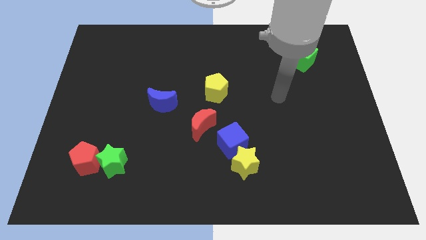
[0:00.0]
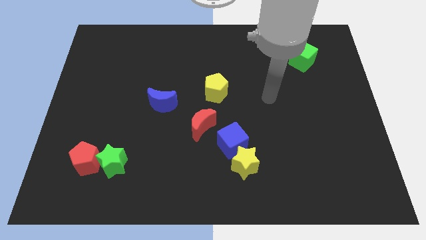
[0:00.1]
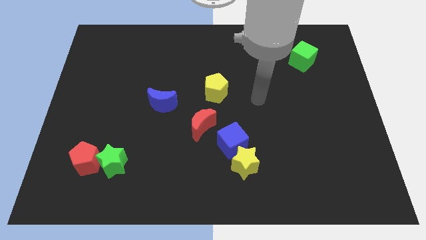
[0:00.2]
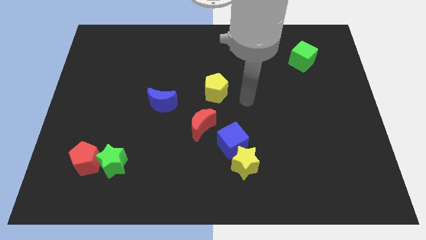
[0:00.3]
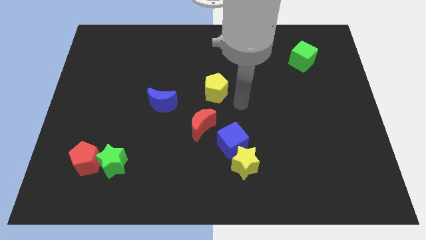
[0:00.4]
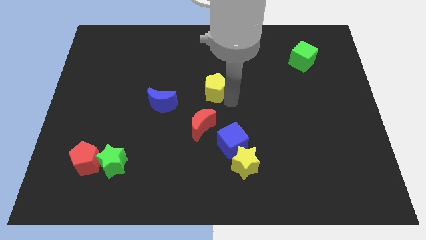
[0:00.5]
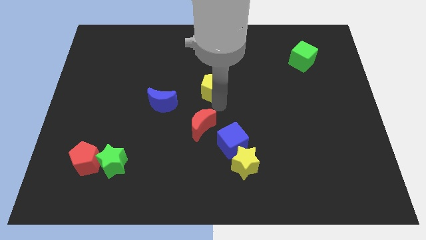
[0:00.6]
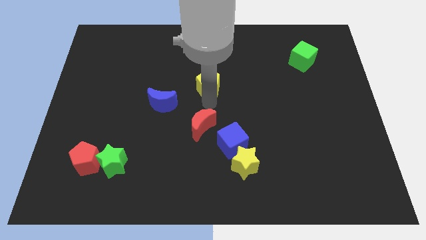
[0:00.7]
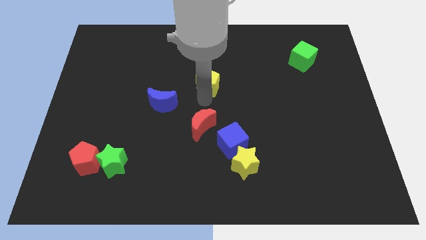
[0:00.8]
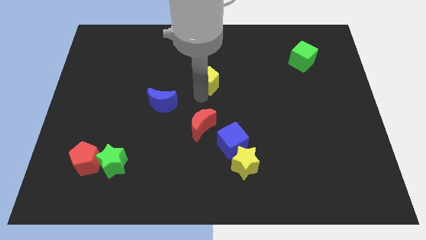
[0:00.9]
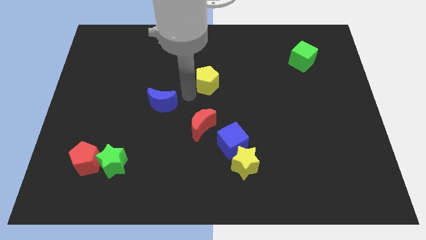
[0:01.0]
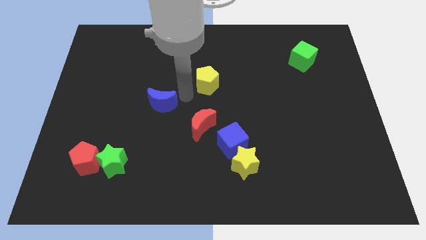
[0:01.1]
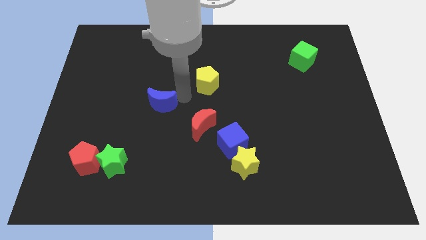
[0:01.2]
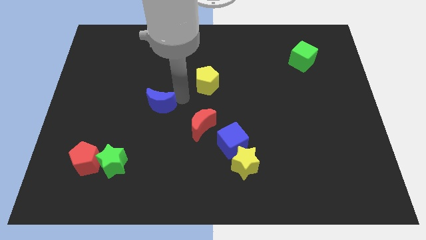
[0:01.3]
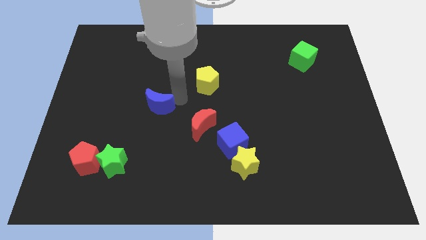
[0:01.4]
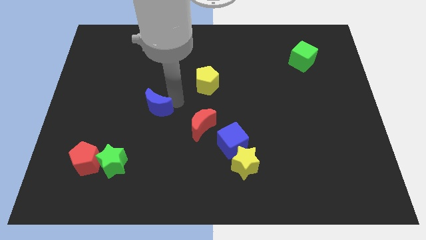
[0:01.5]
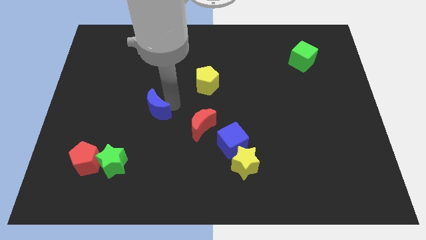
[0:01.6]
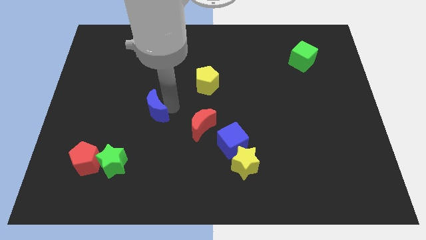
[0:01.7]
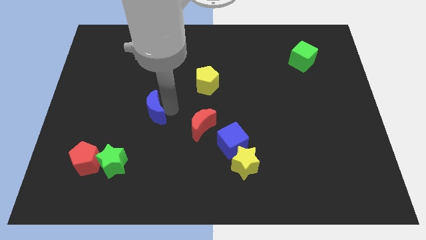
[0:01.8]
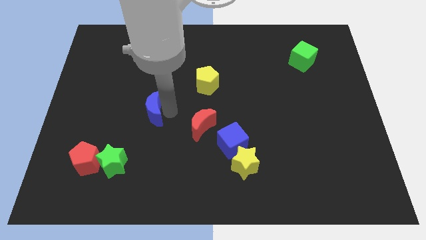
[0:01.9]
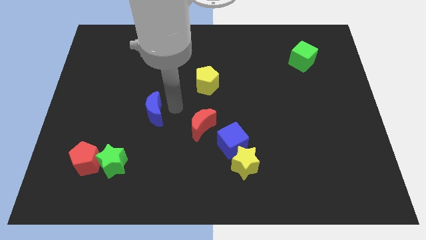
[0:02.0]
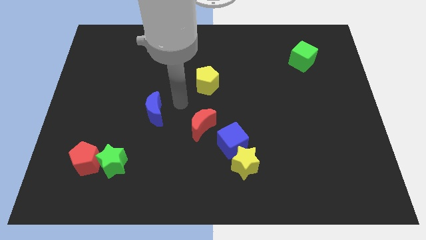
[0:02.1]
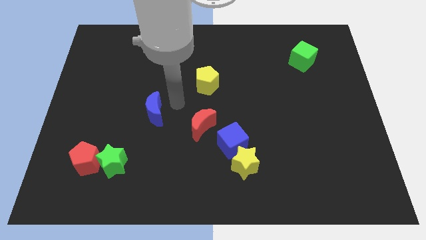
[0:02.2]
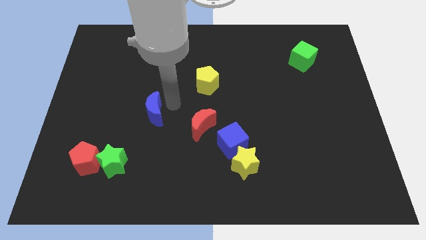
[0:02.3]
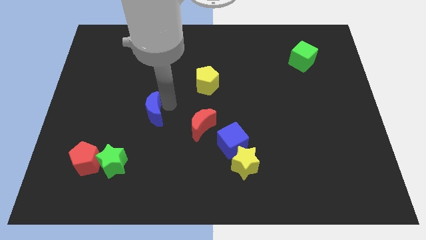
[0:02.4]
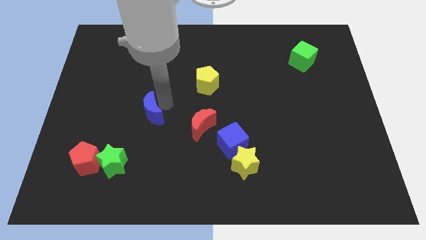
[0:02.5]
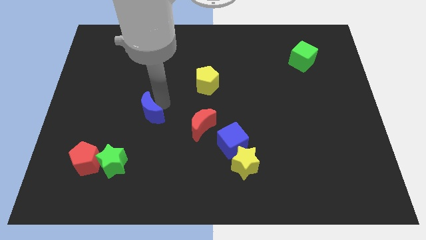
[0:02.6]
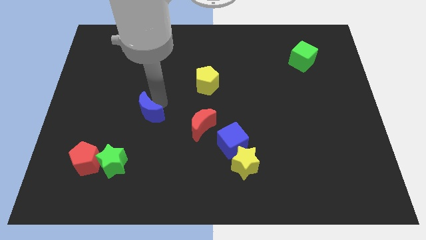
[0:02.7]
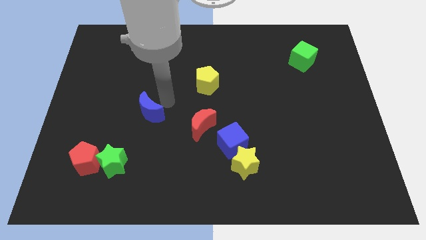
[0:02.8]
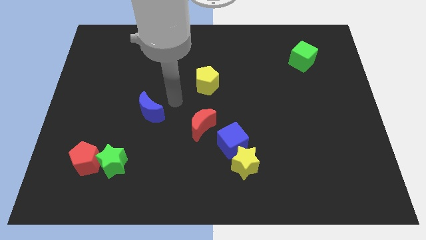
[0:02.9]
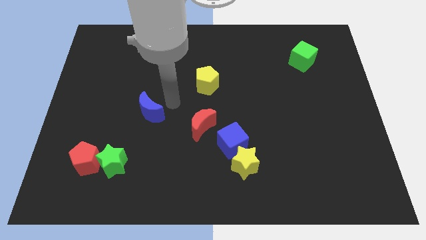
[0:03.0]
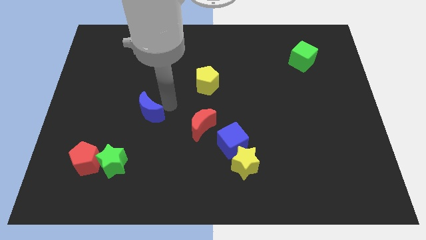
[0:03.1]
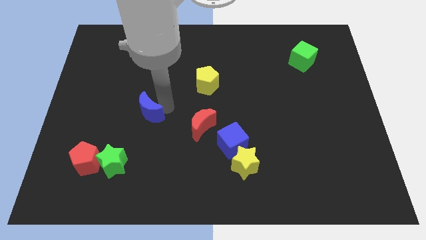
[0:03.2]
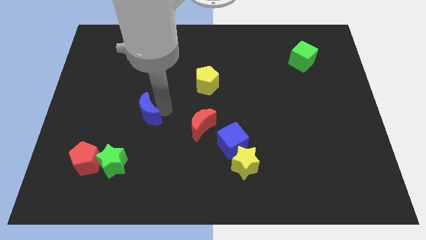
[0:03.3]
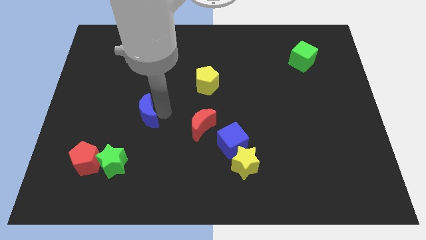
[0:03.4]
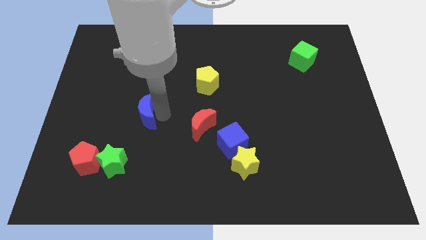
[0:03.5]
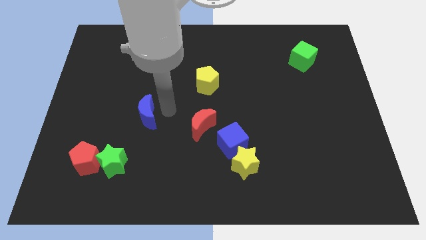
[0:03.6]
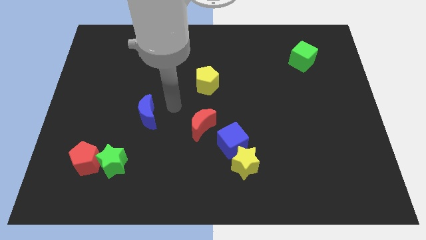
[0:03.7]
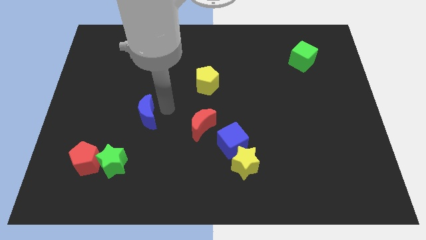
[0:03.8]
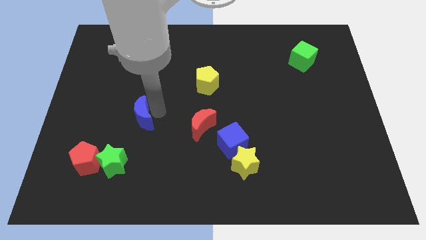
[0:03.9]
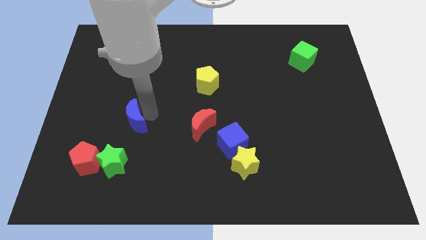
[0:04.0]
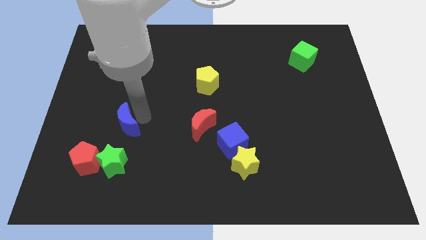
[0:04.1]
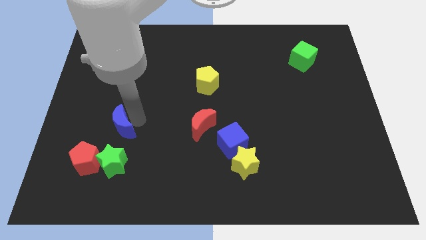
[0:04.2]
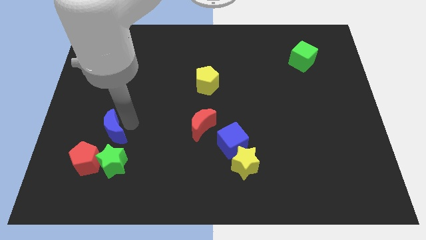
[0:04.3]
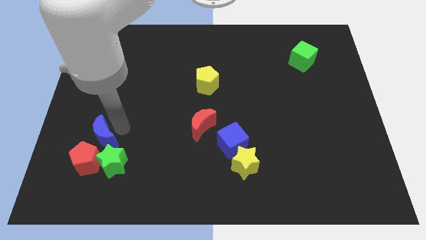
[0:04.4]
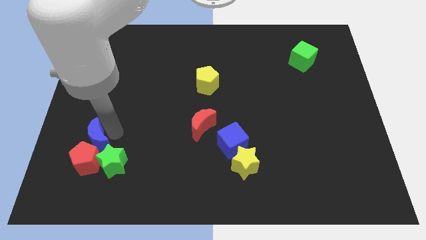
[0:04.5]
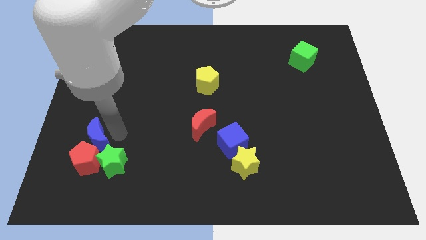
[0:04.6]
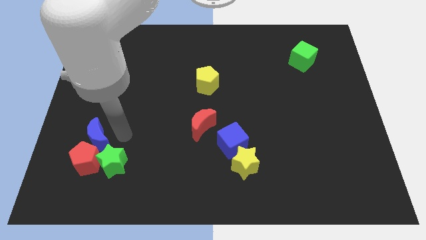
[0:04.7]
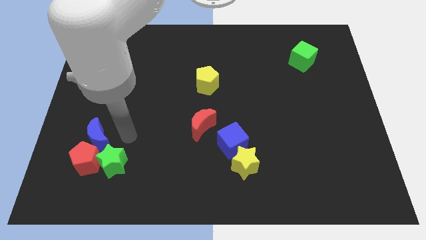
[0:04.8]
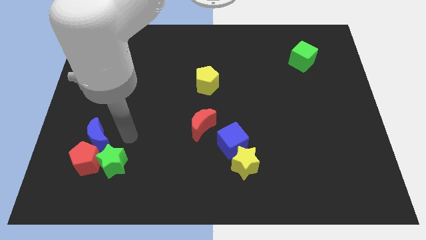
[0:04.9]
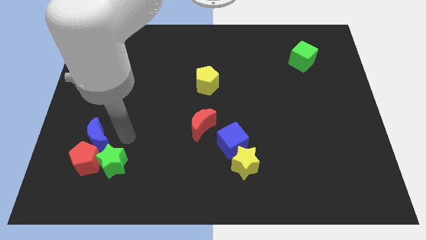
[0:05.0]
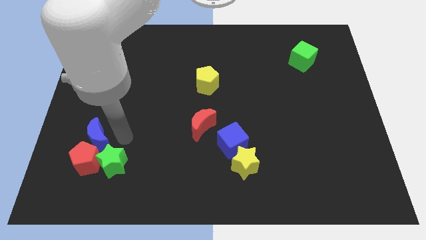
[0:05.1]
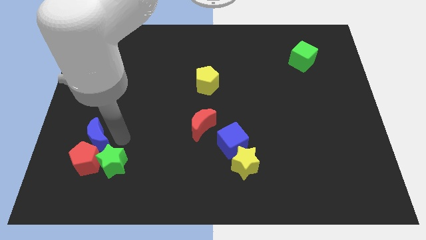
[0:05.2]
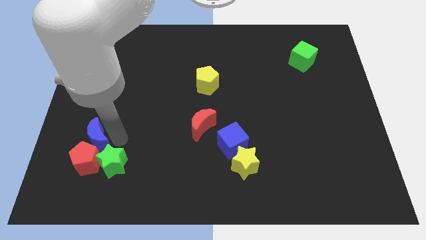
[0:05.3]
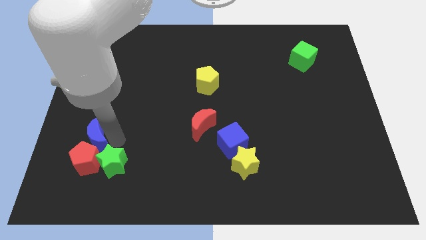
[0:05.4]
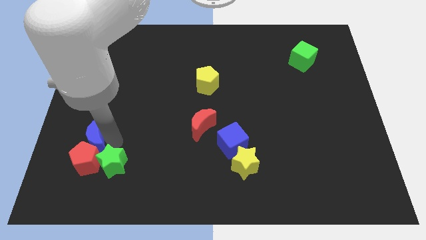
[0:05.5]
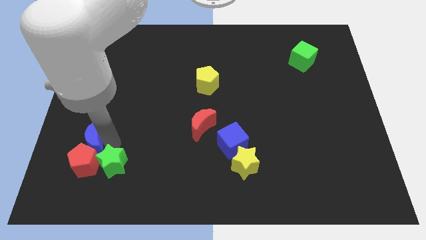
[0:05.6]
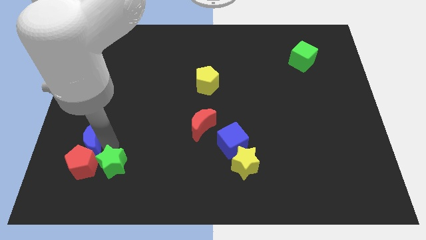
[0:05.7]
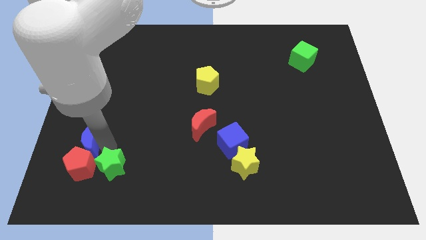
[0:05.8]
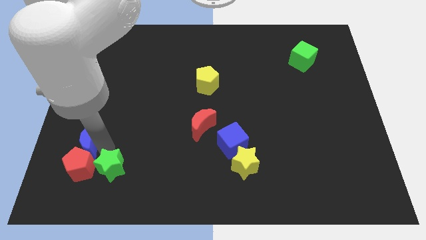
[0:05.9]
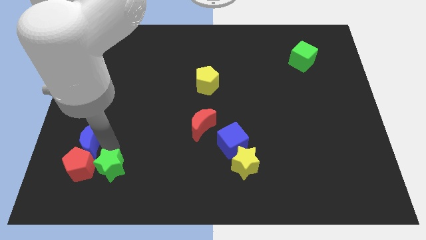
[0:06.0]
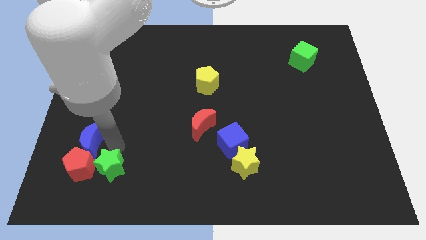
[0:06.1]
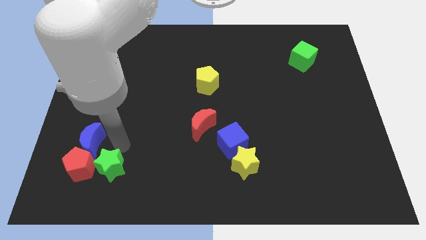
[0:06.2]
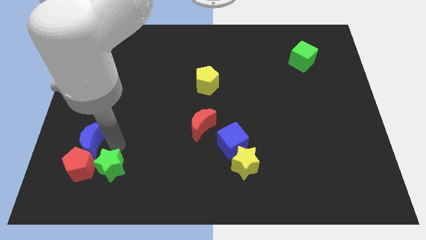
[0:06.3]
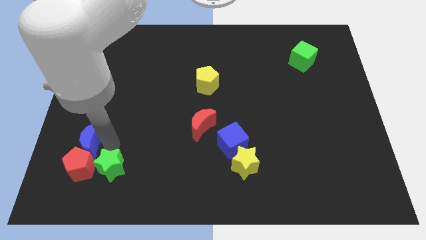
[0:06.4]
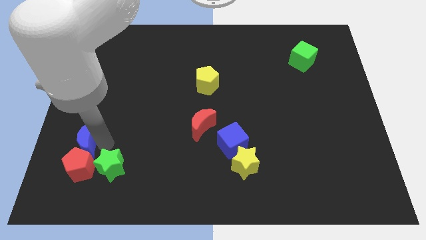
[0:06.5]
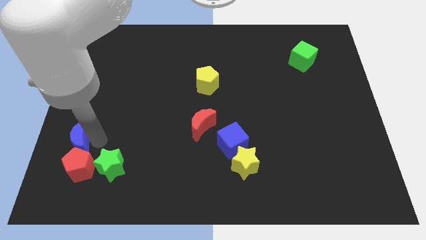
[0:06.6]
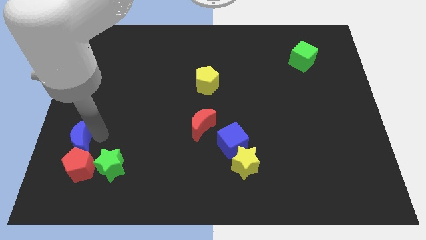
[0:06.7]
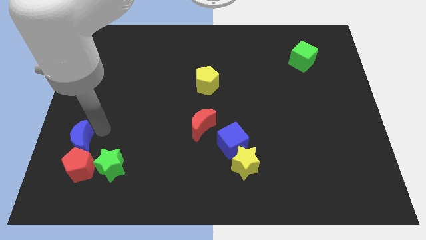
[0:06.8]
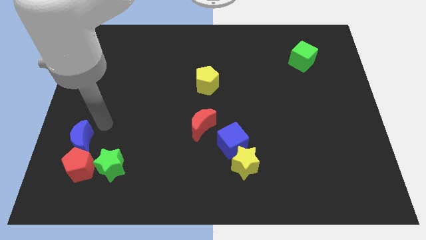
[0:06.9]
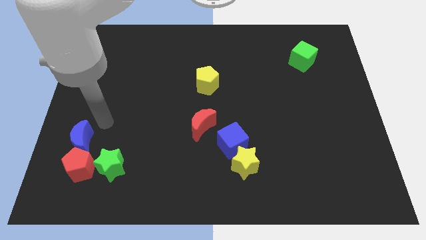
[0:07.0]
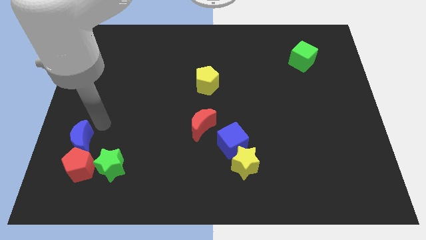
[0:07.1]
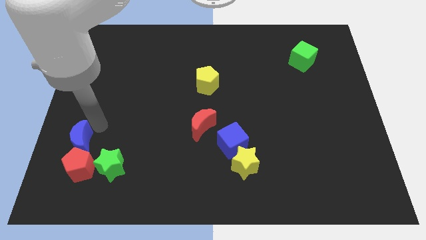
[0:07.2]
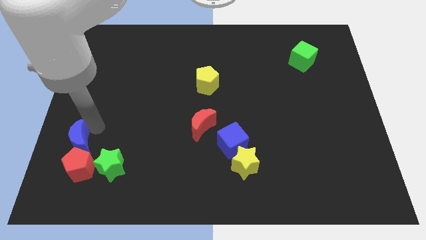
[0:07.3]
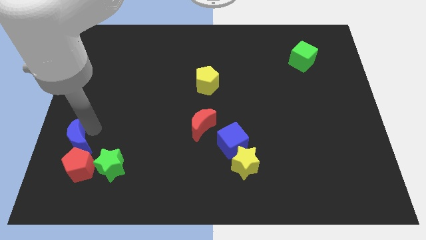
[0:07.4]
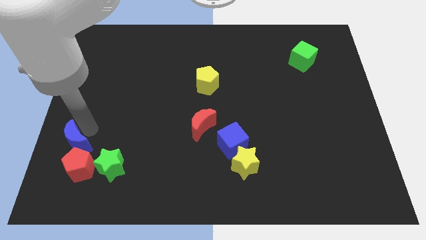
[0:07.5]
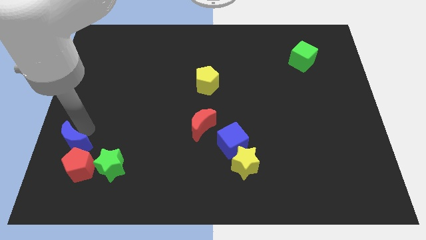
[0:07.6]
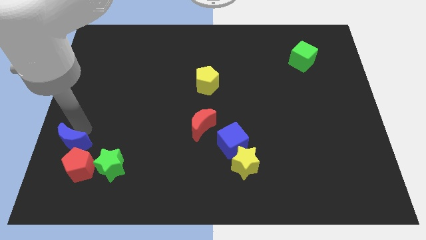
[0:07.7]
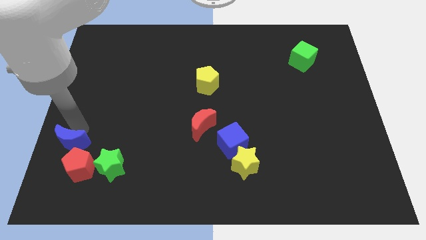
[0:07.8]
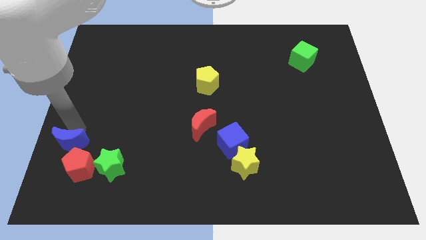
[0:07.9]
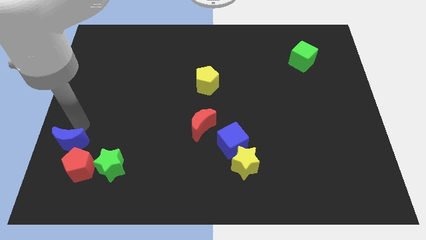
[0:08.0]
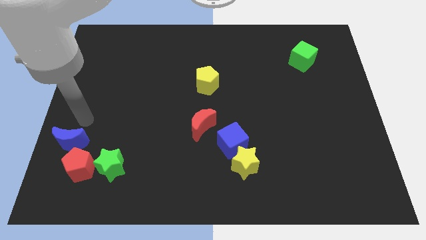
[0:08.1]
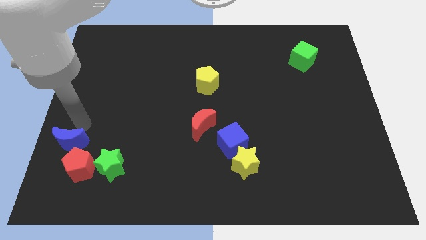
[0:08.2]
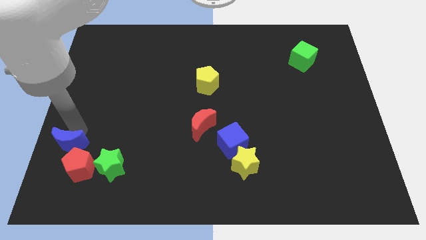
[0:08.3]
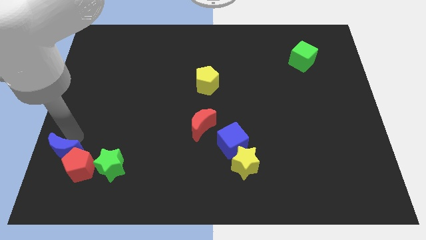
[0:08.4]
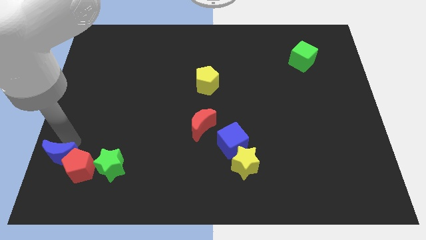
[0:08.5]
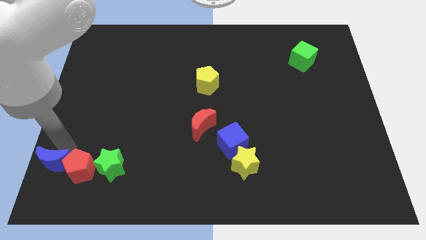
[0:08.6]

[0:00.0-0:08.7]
move the blue moon to the bottom left
